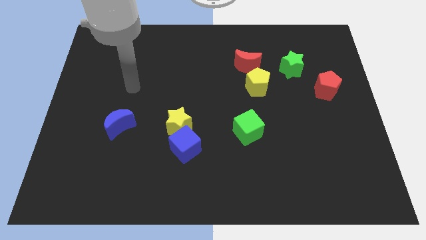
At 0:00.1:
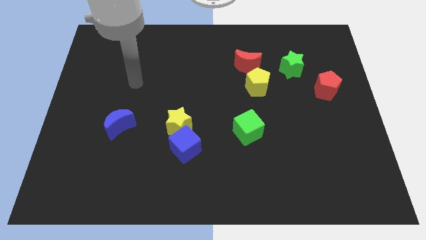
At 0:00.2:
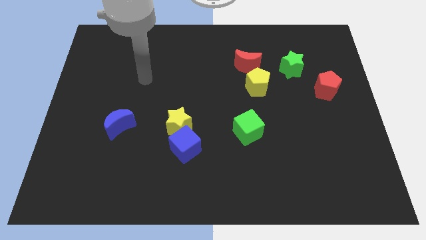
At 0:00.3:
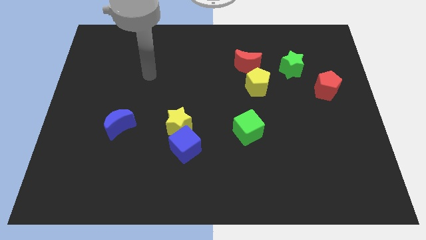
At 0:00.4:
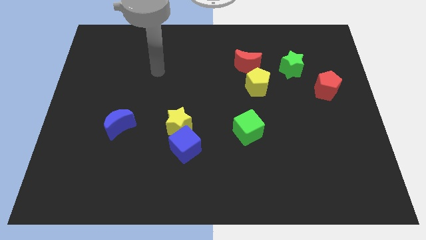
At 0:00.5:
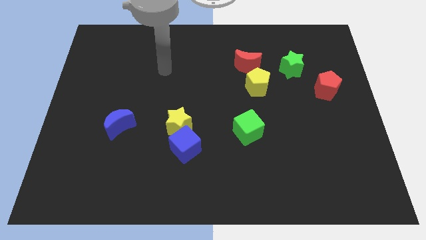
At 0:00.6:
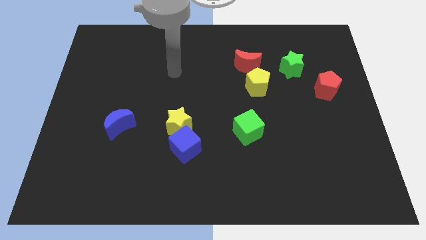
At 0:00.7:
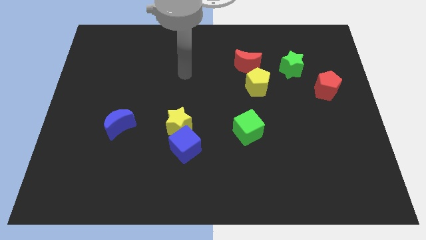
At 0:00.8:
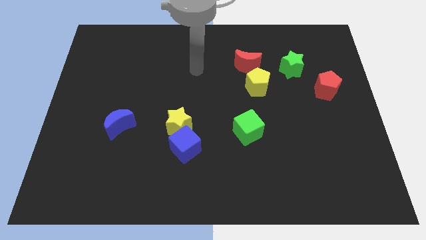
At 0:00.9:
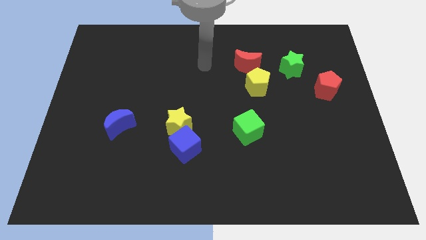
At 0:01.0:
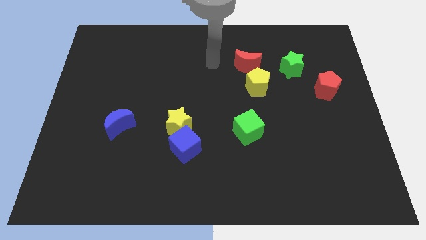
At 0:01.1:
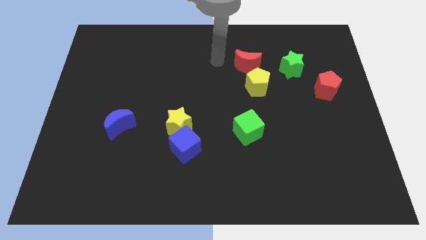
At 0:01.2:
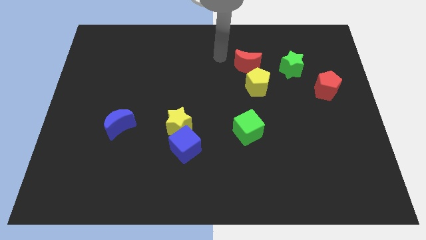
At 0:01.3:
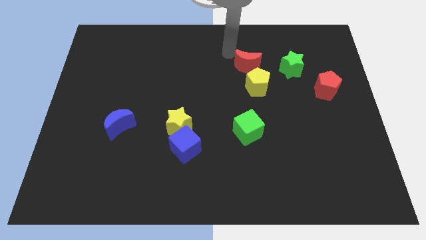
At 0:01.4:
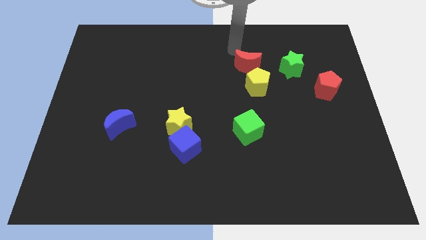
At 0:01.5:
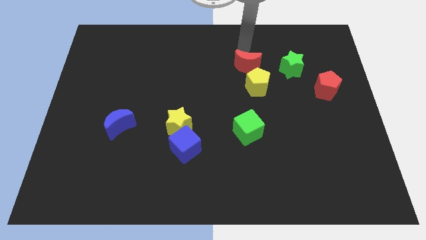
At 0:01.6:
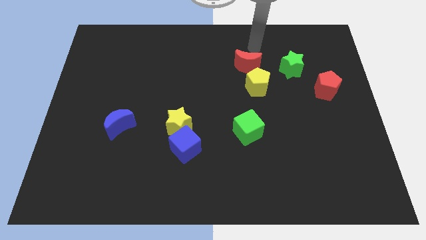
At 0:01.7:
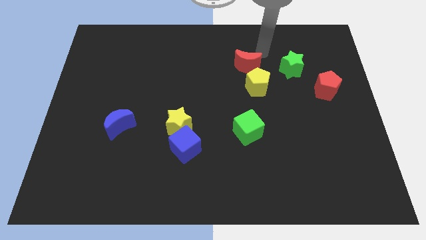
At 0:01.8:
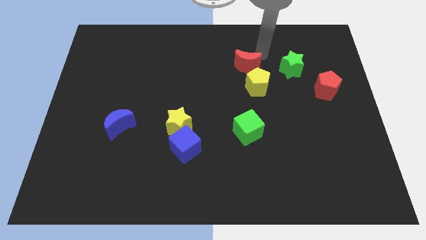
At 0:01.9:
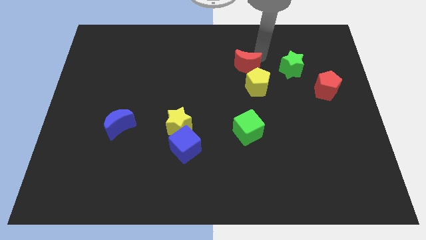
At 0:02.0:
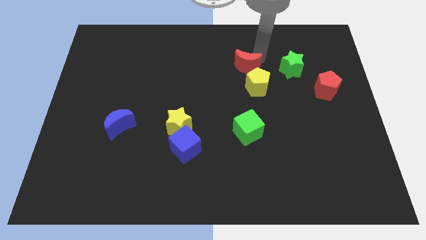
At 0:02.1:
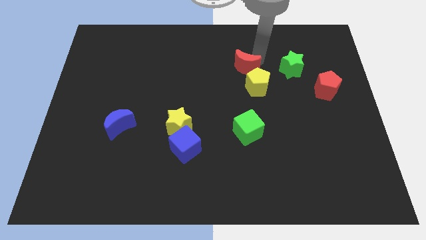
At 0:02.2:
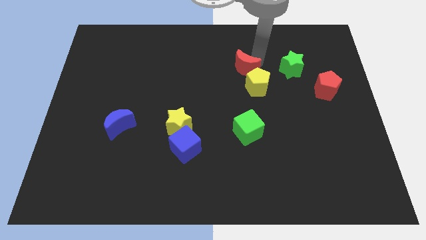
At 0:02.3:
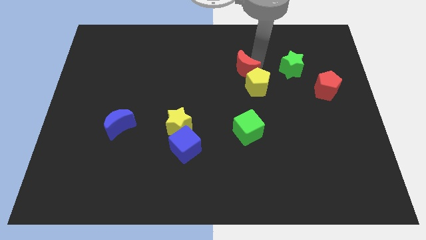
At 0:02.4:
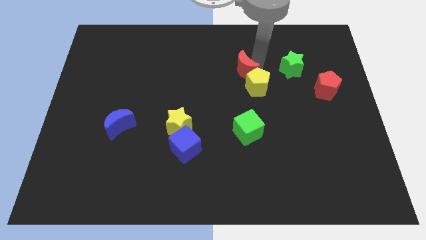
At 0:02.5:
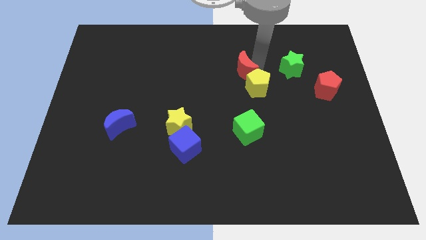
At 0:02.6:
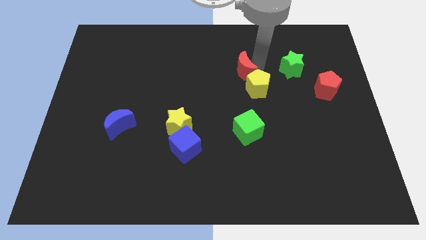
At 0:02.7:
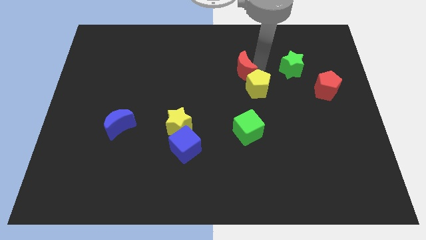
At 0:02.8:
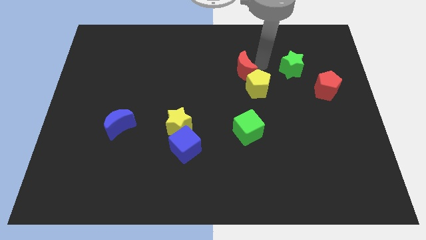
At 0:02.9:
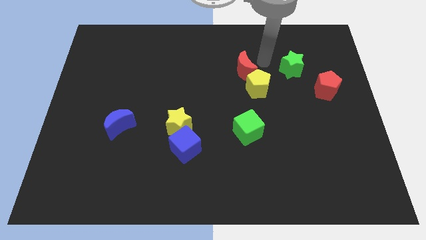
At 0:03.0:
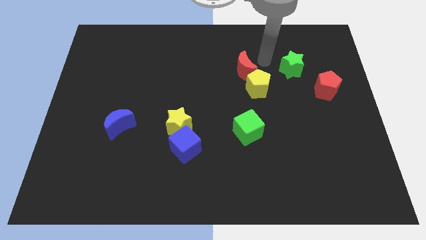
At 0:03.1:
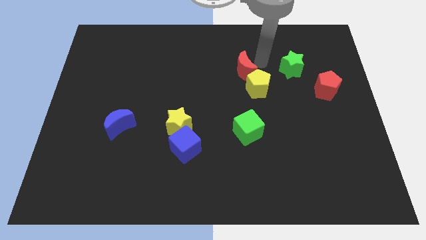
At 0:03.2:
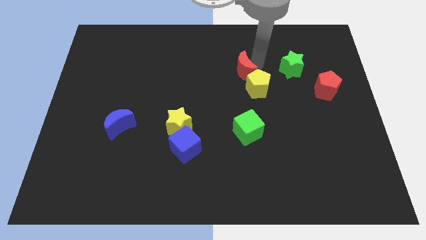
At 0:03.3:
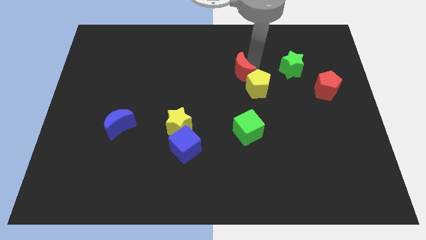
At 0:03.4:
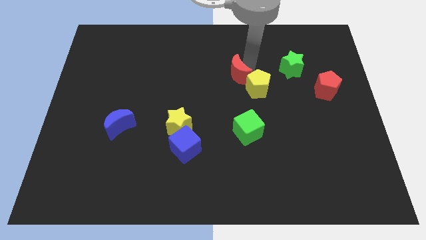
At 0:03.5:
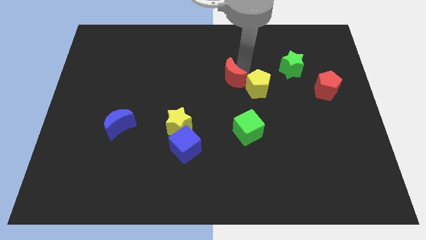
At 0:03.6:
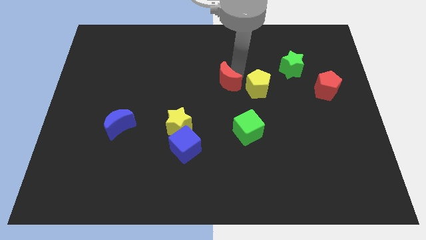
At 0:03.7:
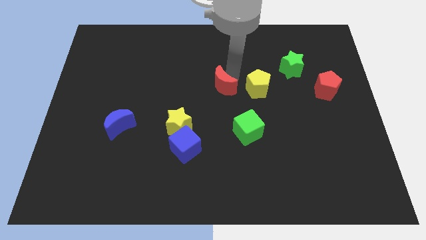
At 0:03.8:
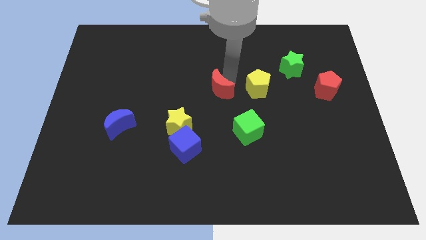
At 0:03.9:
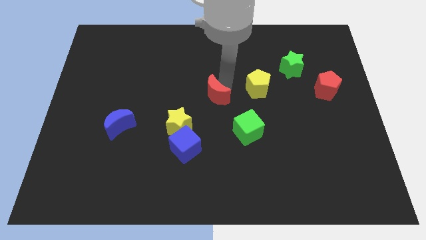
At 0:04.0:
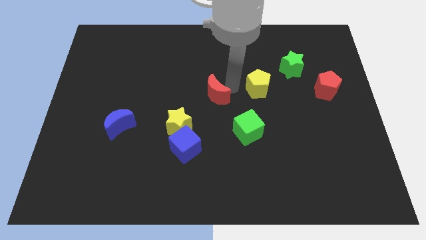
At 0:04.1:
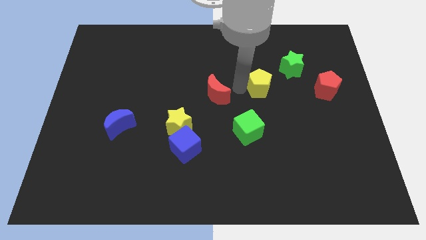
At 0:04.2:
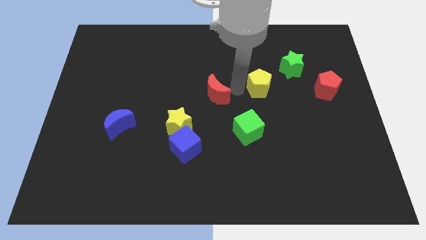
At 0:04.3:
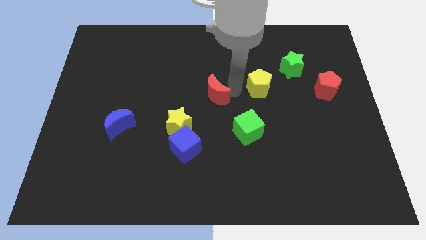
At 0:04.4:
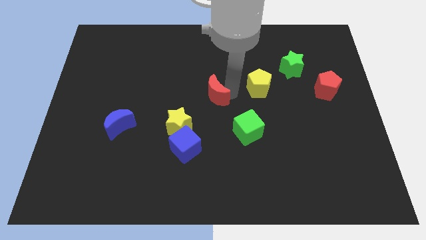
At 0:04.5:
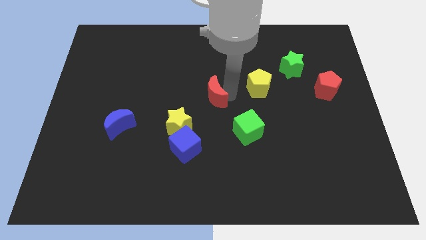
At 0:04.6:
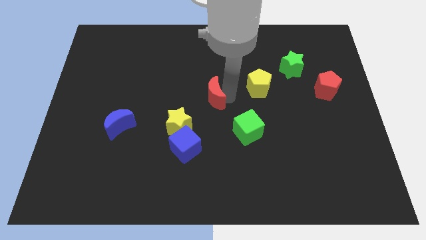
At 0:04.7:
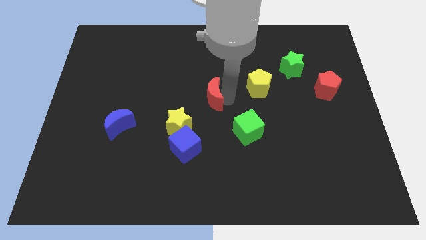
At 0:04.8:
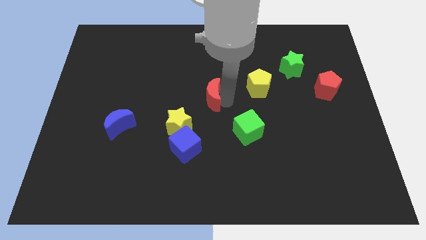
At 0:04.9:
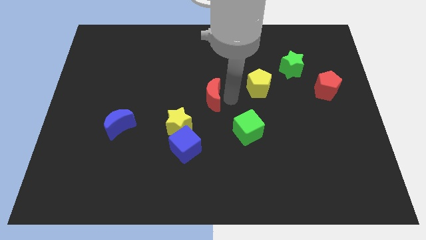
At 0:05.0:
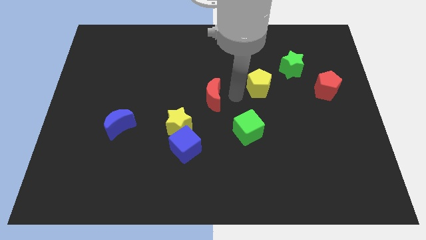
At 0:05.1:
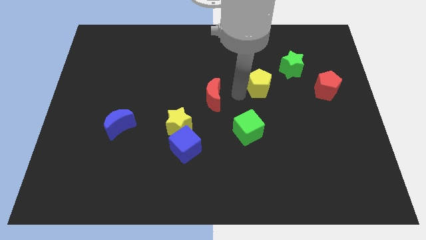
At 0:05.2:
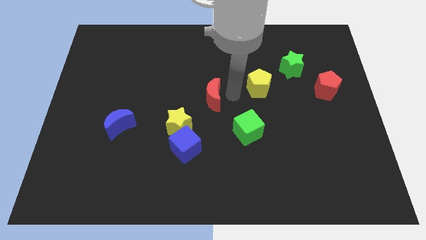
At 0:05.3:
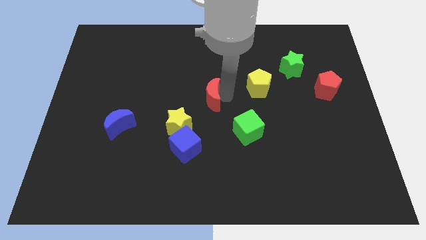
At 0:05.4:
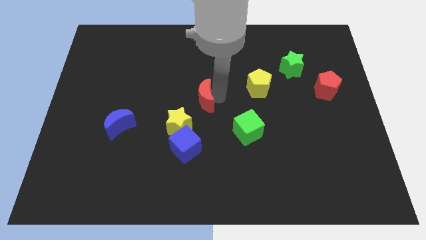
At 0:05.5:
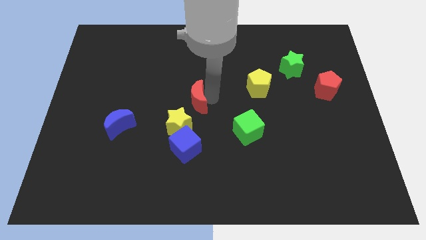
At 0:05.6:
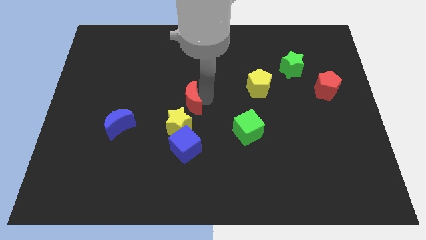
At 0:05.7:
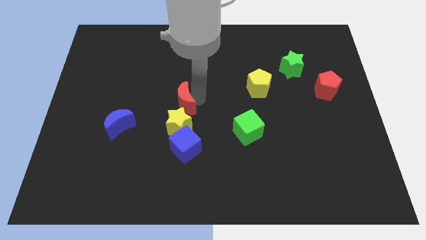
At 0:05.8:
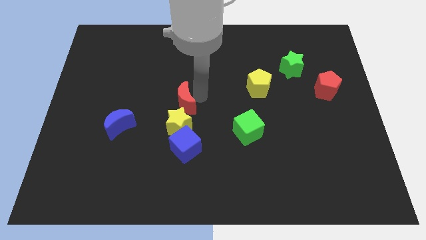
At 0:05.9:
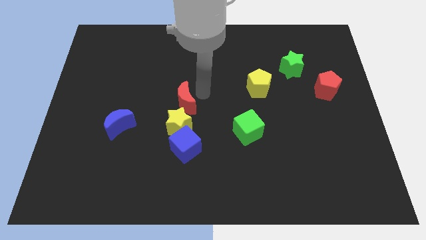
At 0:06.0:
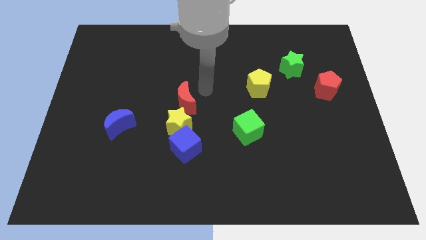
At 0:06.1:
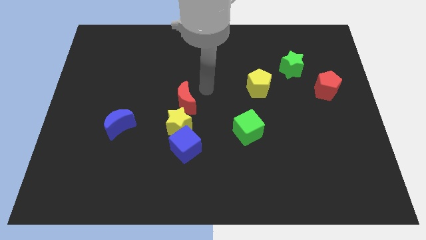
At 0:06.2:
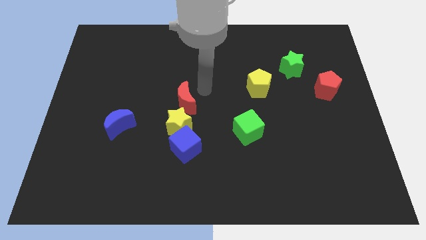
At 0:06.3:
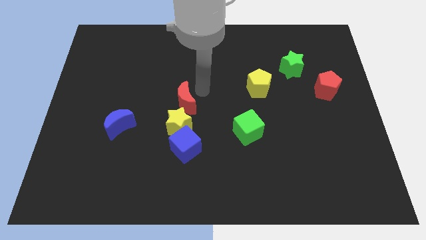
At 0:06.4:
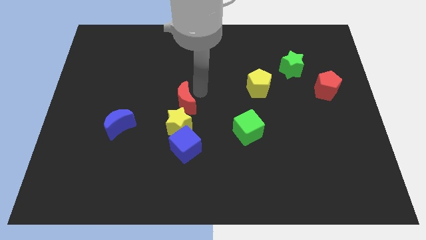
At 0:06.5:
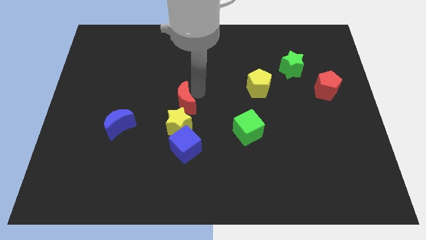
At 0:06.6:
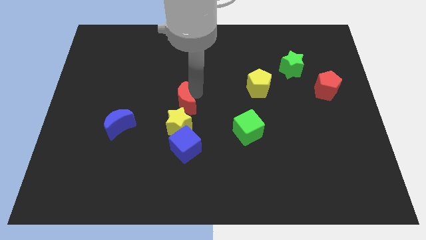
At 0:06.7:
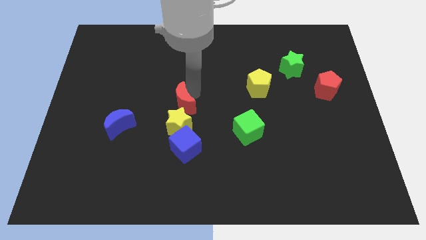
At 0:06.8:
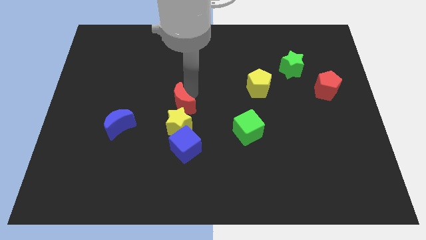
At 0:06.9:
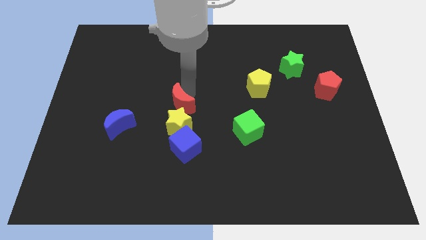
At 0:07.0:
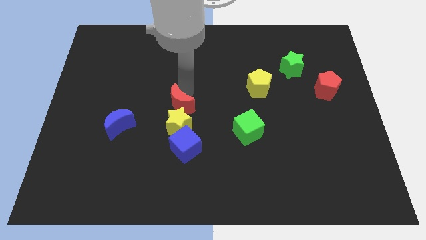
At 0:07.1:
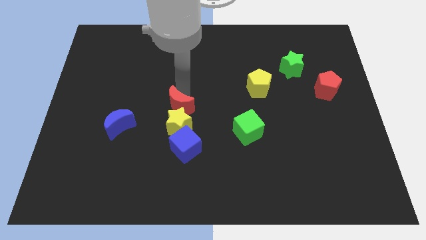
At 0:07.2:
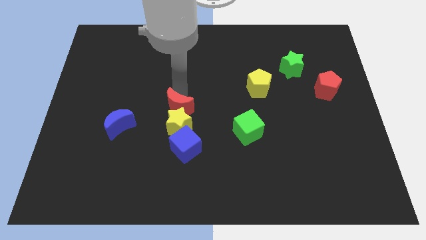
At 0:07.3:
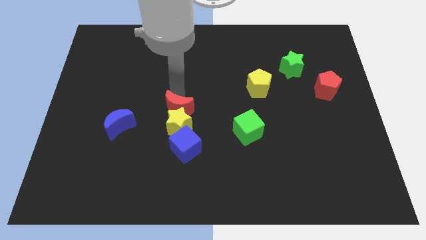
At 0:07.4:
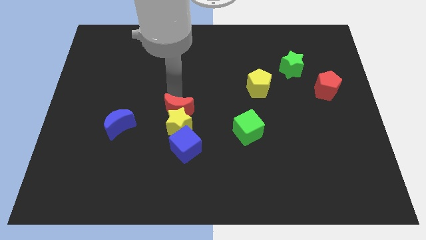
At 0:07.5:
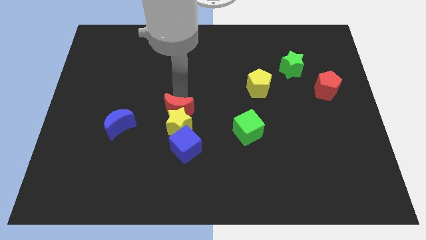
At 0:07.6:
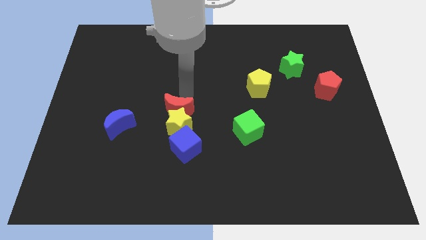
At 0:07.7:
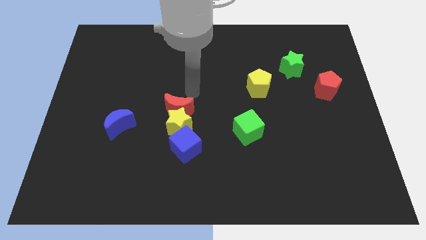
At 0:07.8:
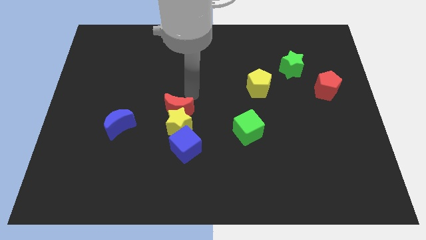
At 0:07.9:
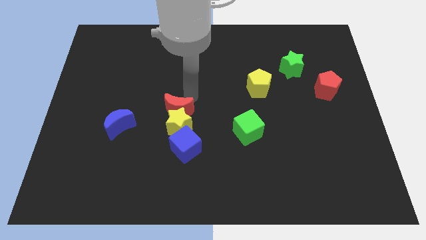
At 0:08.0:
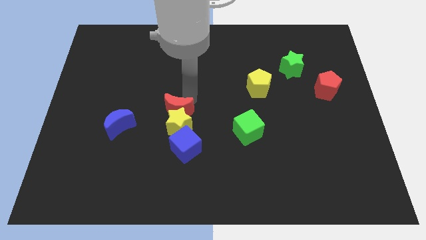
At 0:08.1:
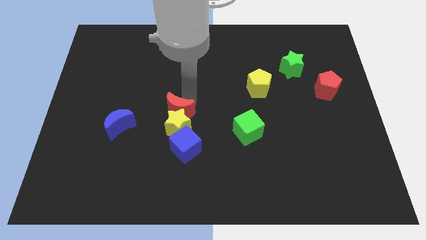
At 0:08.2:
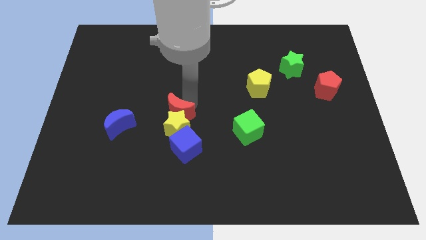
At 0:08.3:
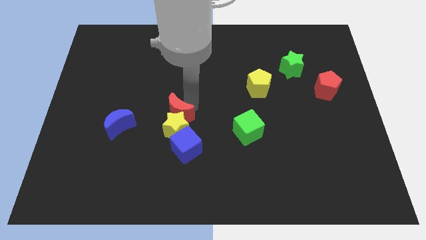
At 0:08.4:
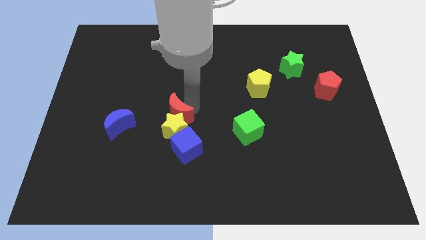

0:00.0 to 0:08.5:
slide the red moon to the top left of the blue cube
